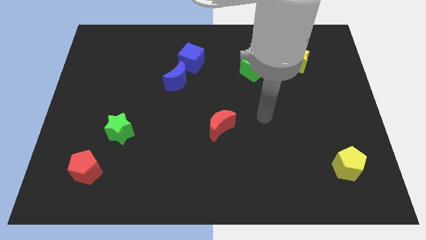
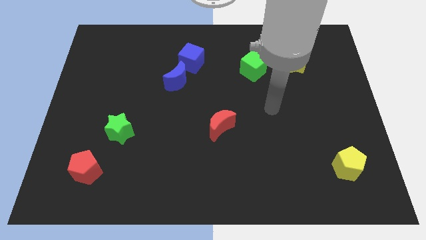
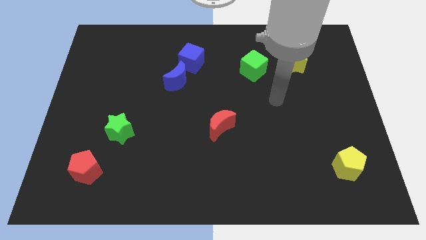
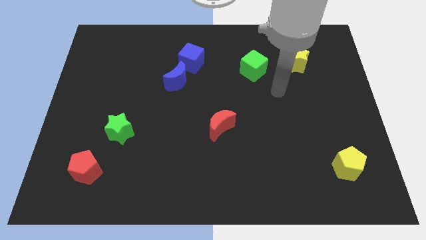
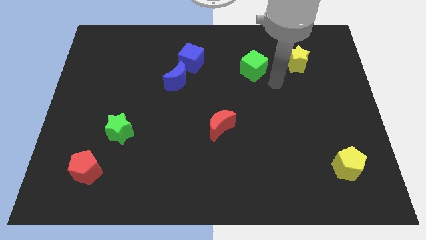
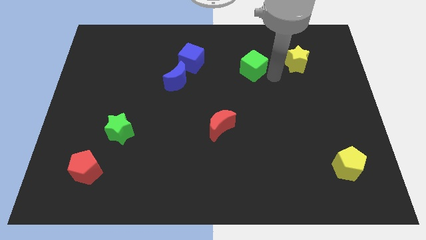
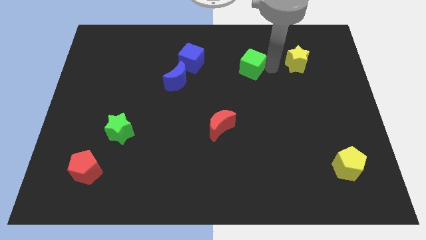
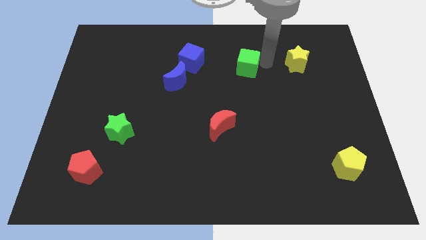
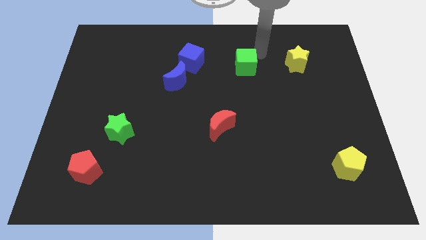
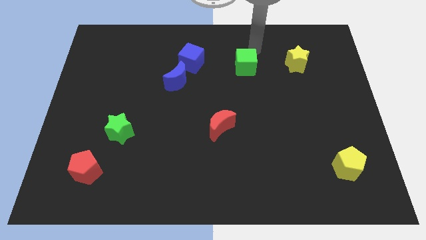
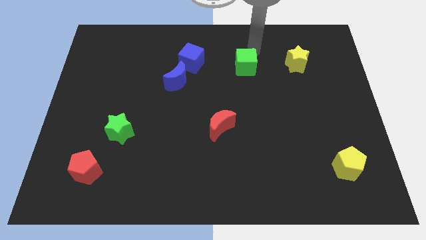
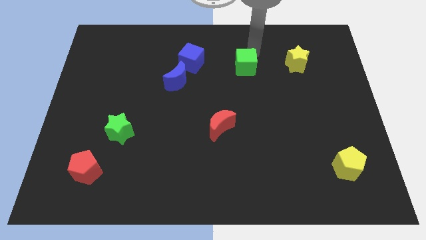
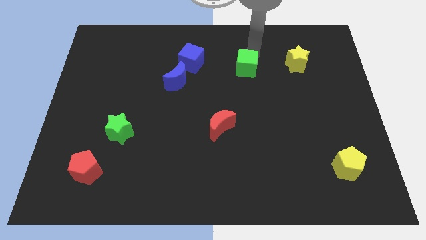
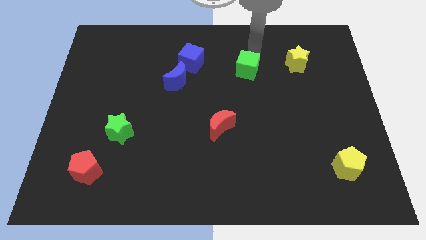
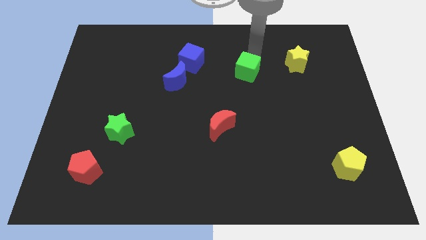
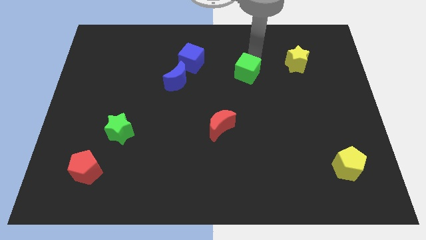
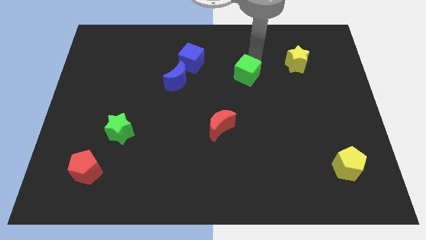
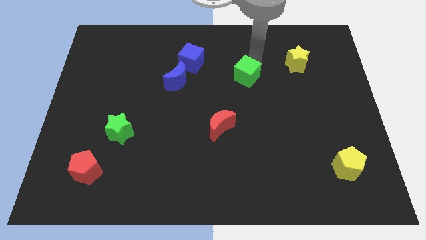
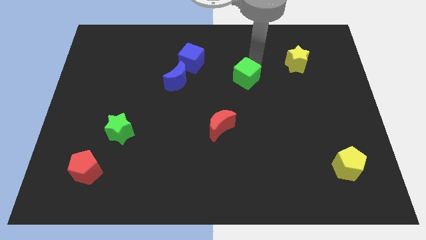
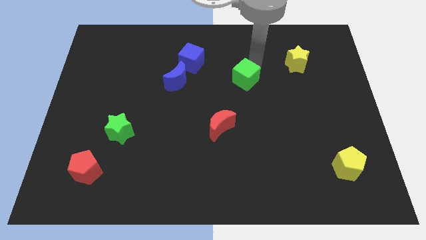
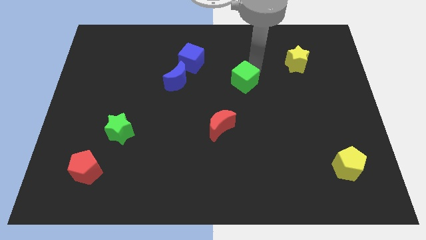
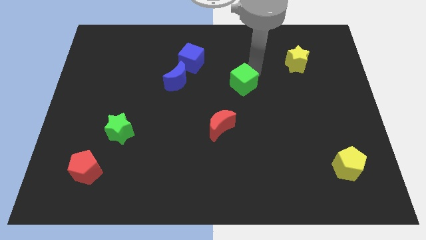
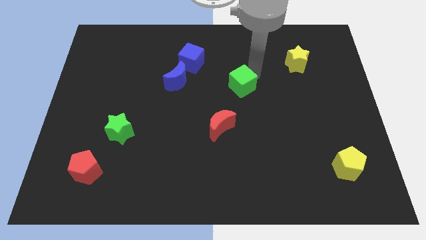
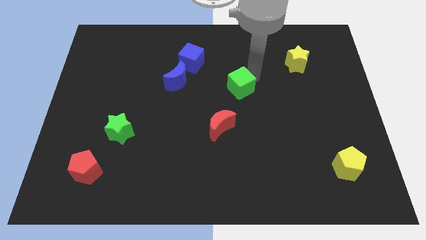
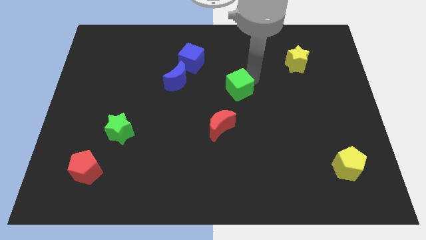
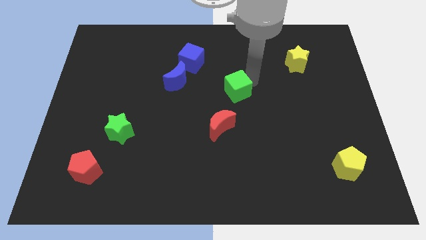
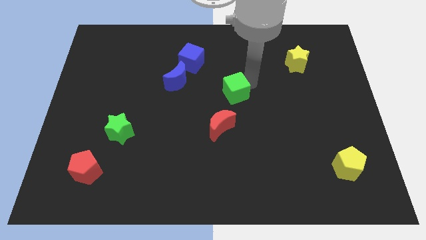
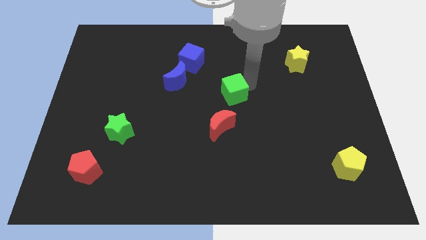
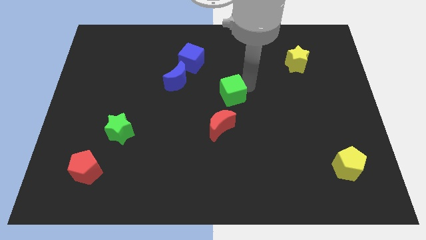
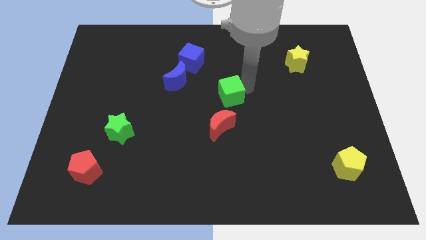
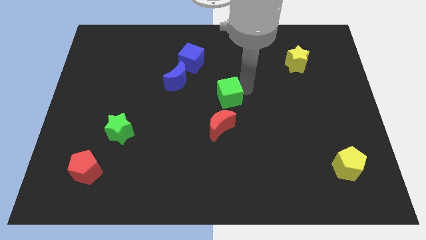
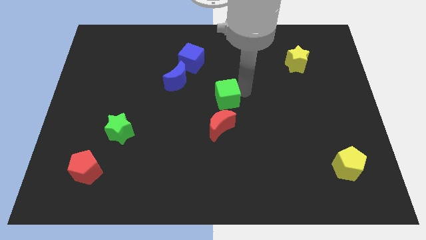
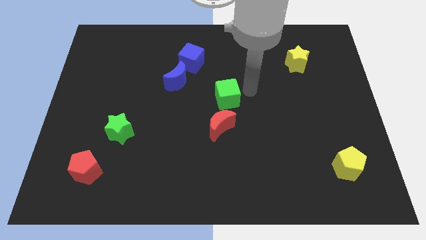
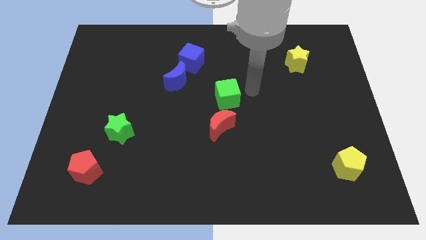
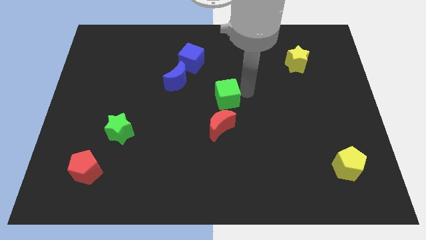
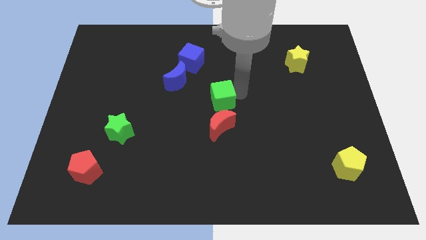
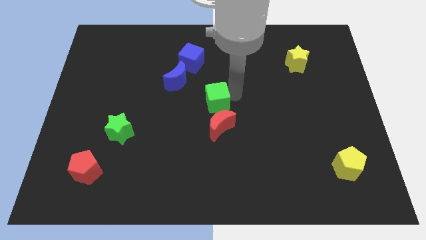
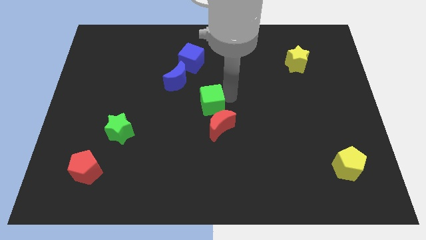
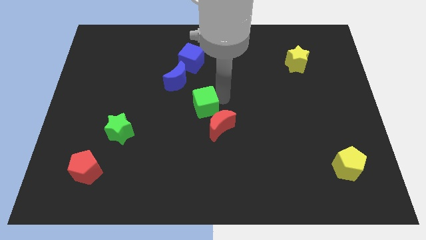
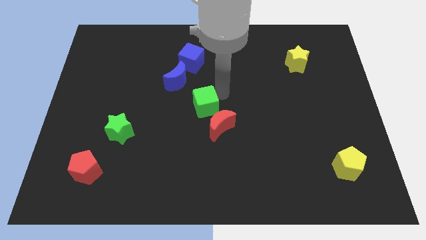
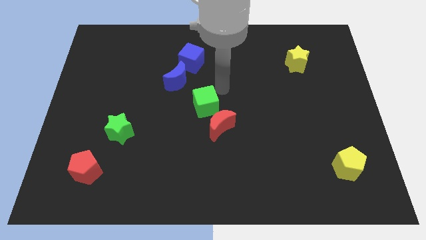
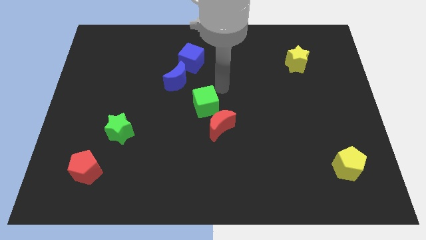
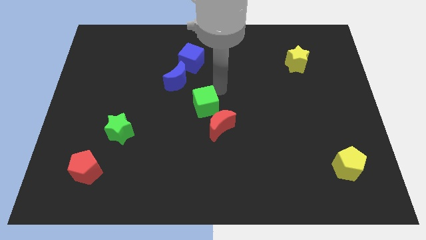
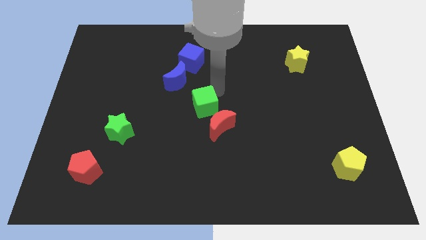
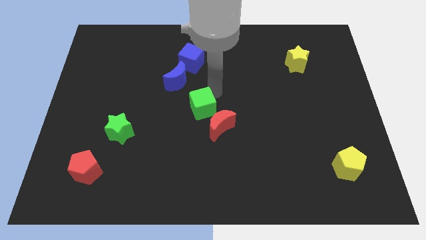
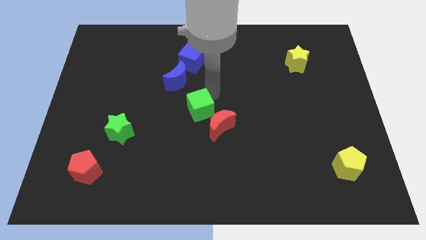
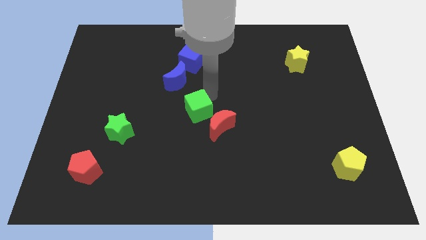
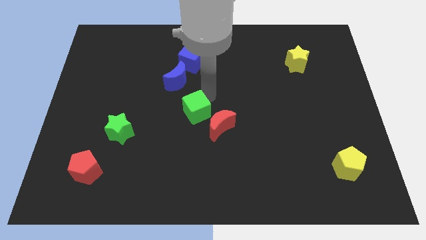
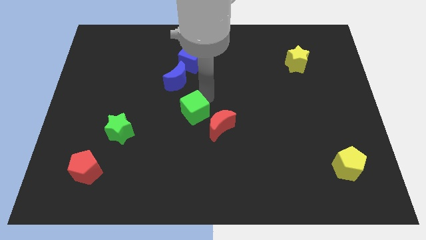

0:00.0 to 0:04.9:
move the green cube down and then to the left

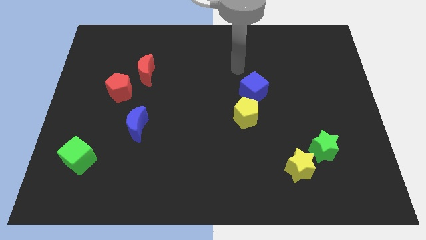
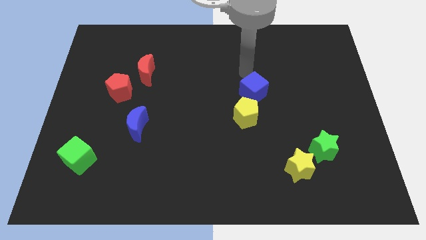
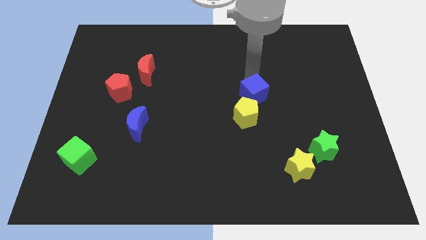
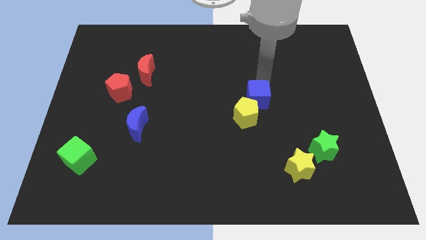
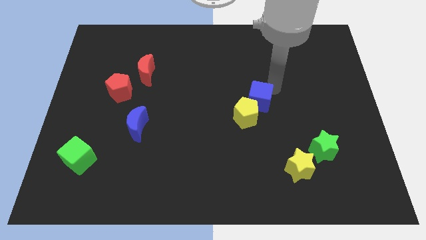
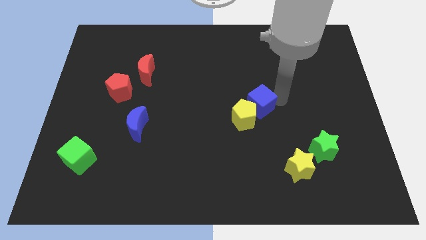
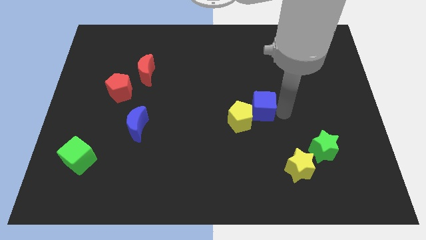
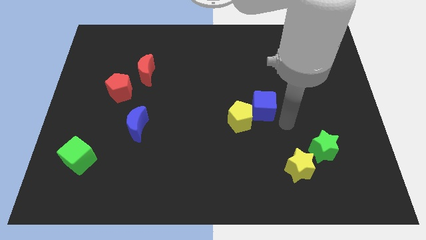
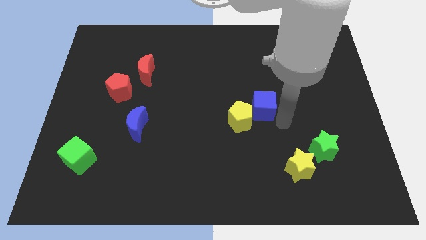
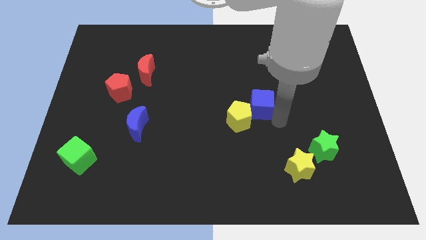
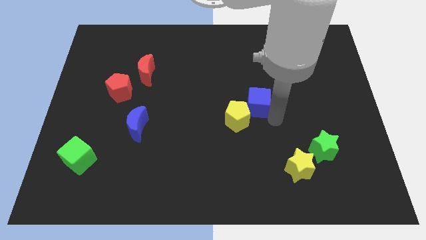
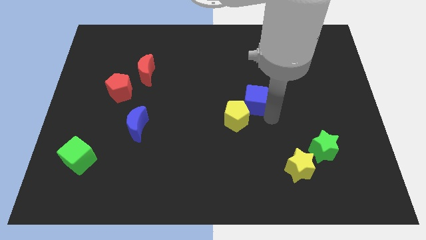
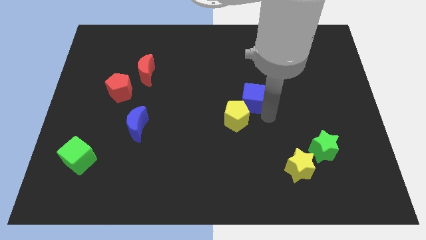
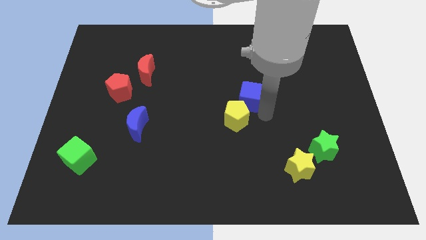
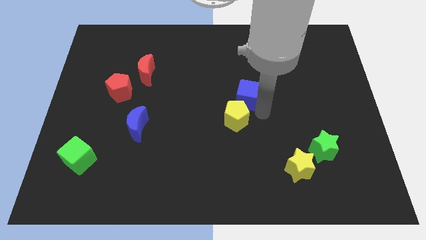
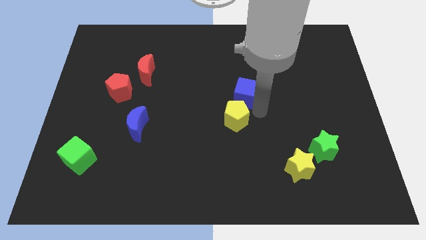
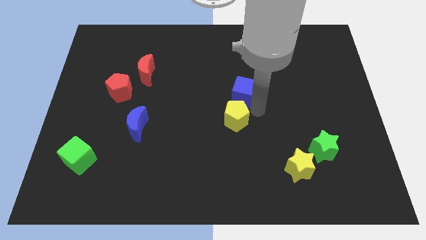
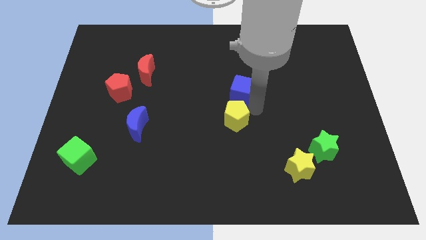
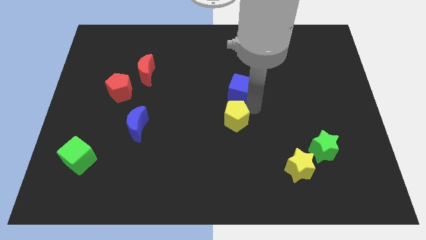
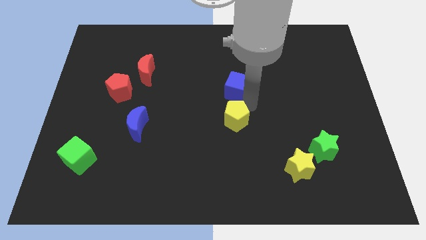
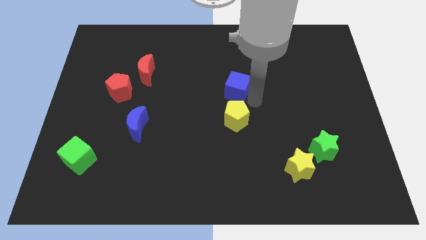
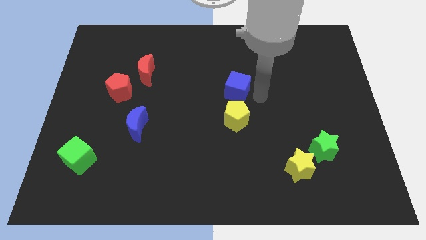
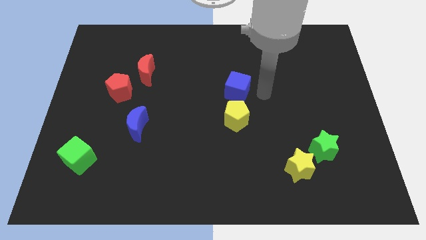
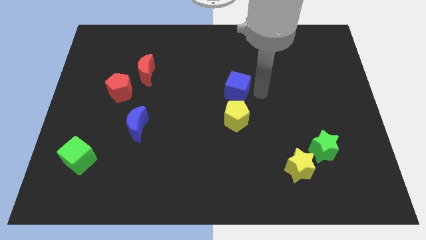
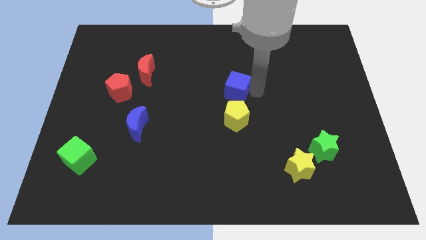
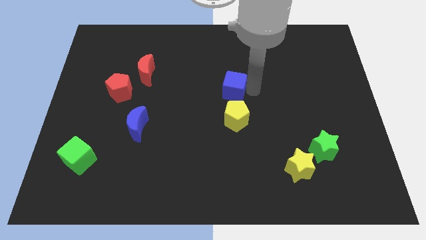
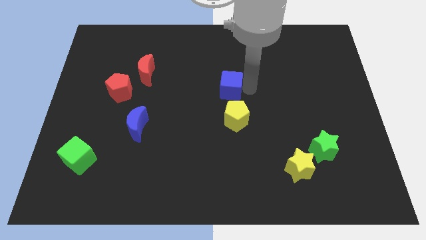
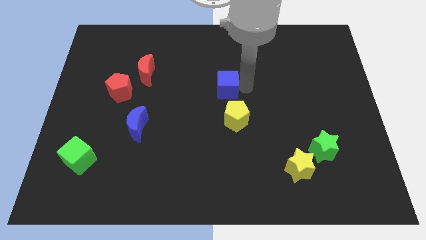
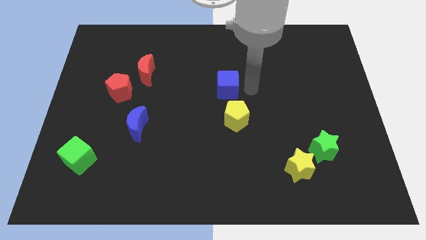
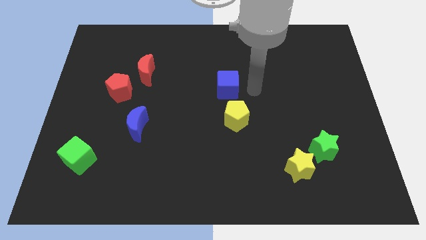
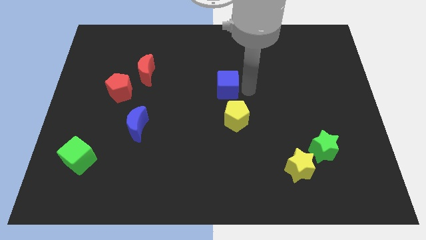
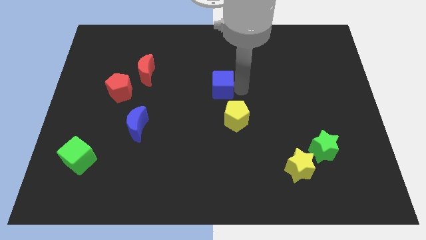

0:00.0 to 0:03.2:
slightly slide the blue cube to the left
